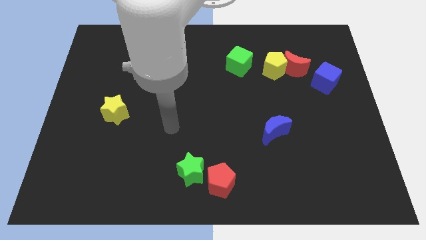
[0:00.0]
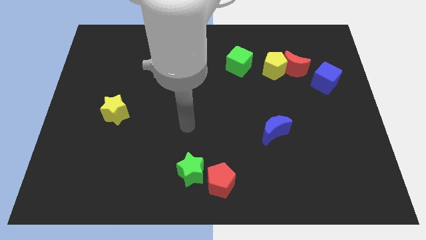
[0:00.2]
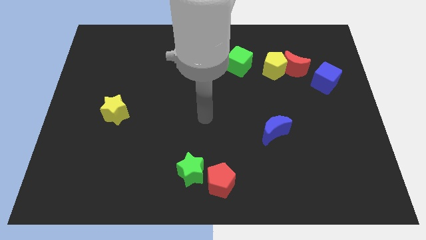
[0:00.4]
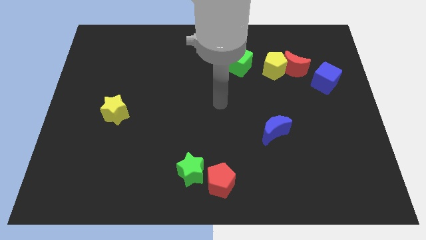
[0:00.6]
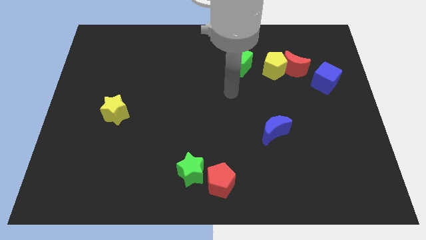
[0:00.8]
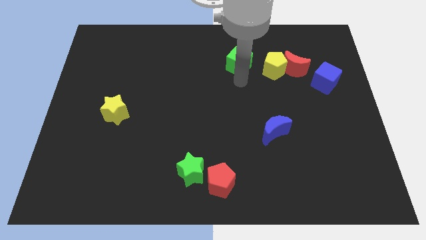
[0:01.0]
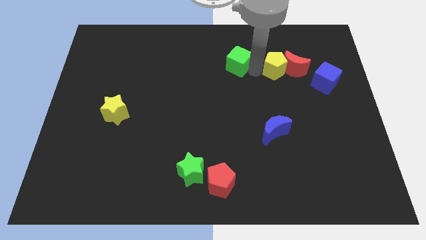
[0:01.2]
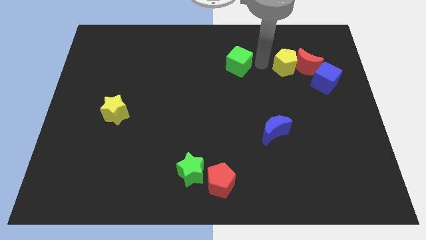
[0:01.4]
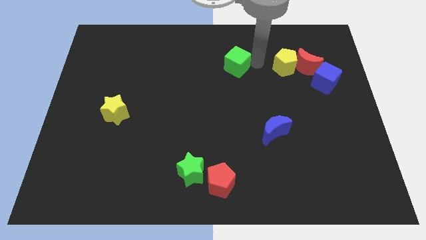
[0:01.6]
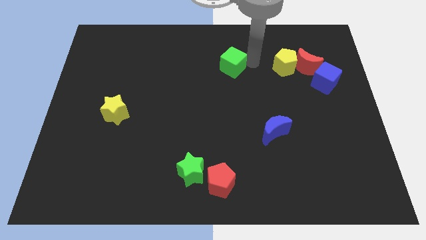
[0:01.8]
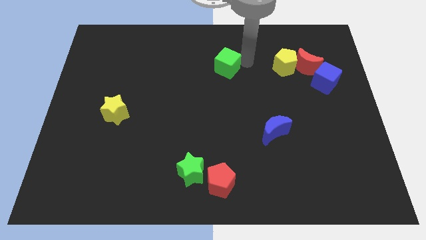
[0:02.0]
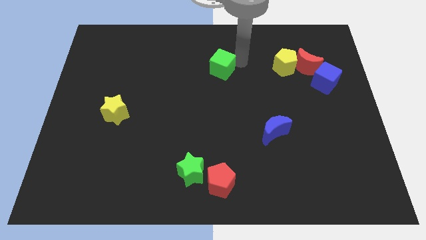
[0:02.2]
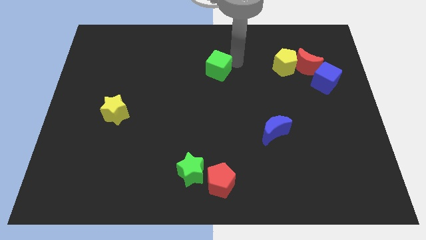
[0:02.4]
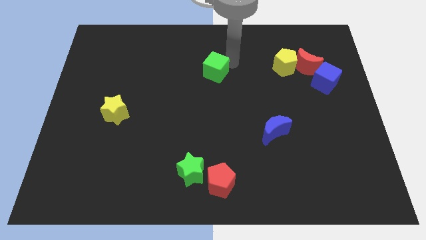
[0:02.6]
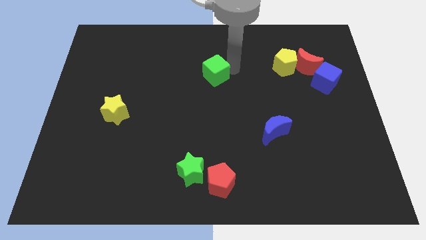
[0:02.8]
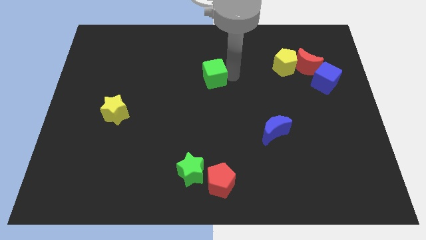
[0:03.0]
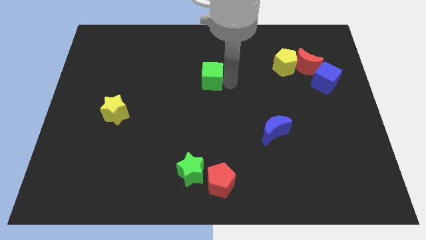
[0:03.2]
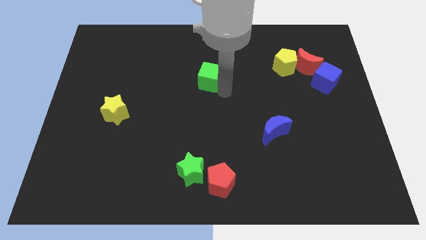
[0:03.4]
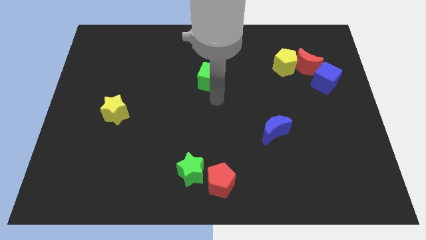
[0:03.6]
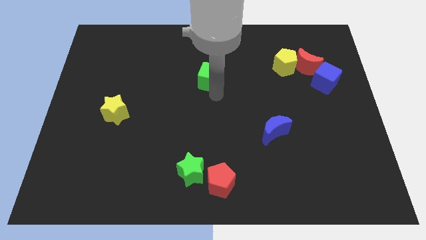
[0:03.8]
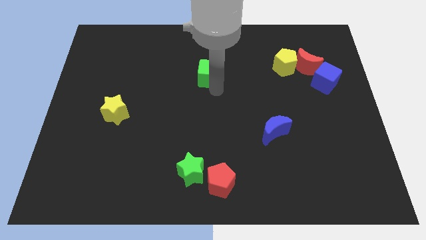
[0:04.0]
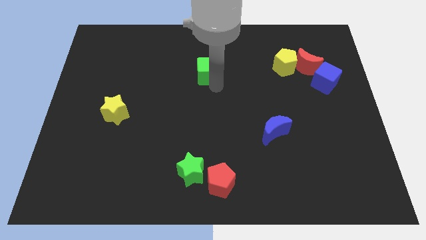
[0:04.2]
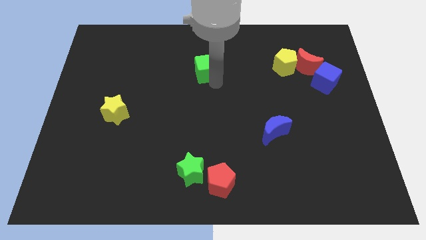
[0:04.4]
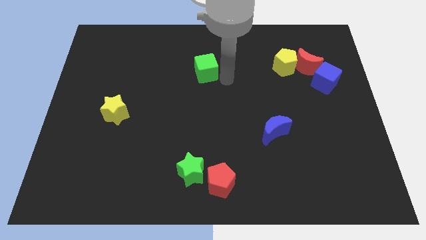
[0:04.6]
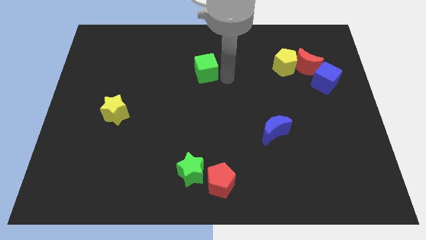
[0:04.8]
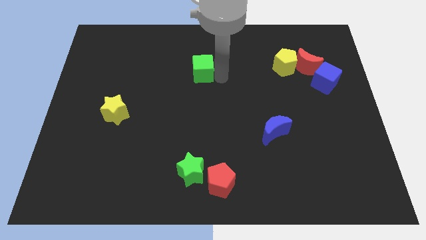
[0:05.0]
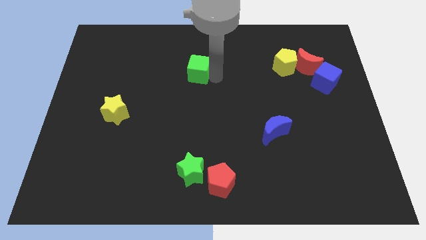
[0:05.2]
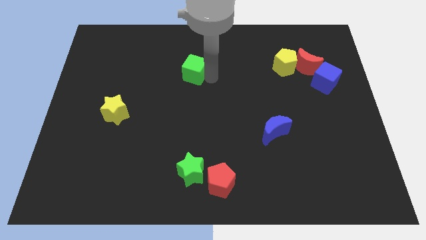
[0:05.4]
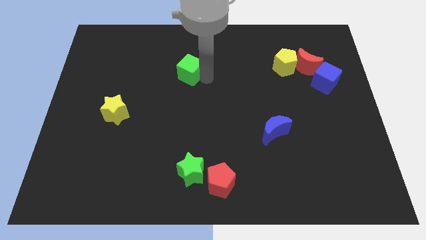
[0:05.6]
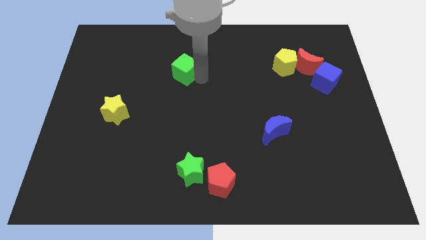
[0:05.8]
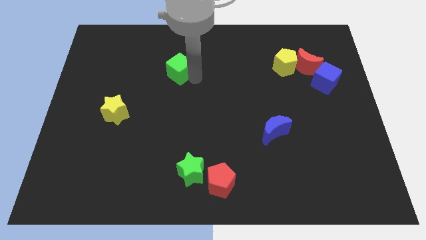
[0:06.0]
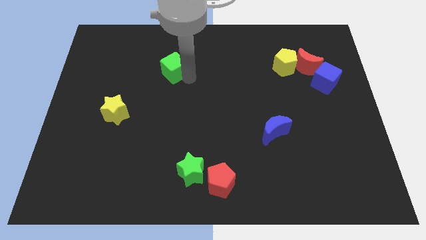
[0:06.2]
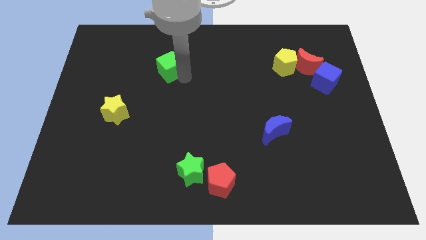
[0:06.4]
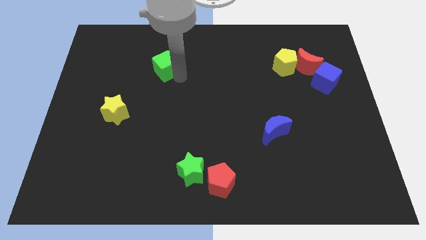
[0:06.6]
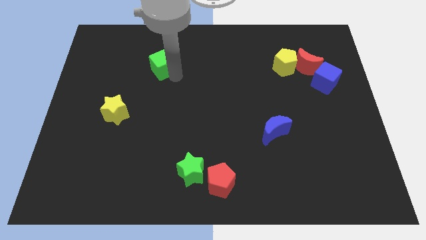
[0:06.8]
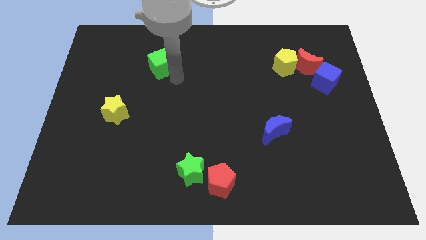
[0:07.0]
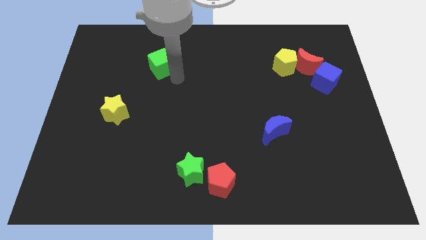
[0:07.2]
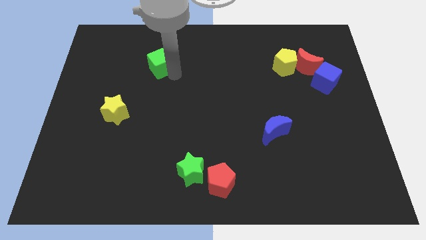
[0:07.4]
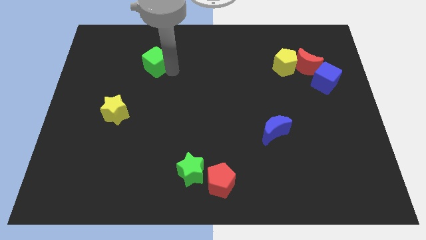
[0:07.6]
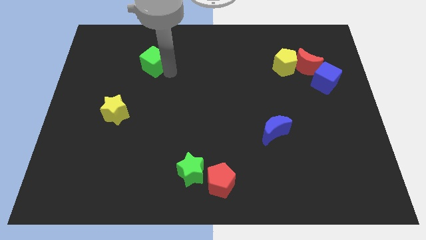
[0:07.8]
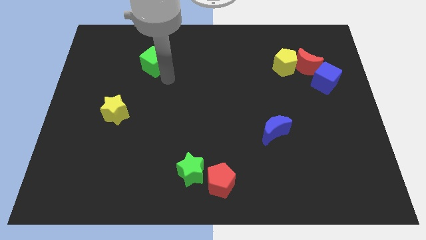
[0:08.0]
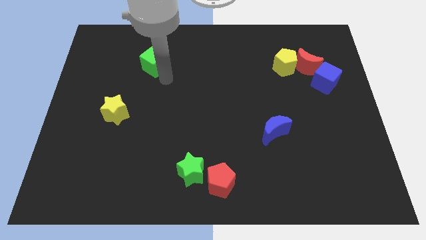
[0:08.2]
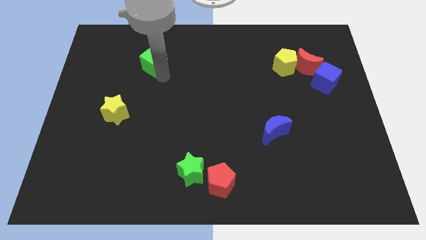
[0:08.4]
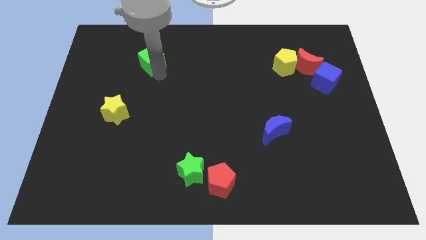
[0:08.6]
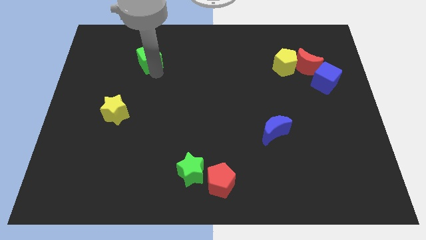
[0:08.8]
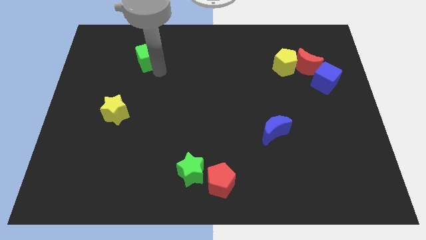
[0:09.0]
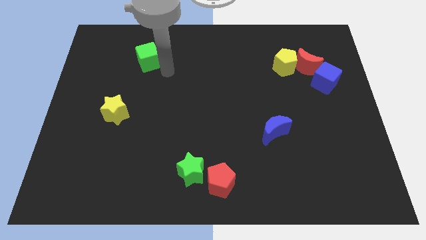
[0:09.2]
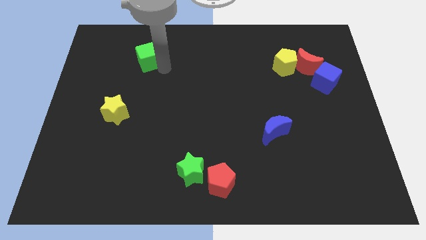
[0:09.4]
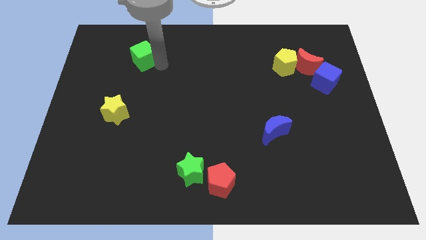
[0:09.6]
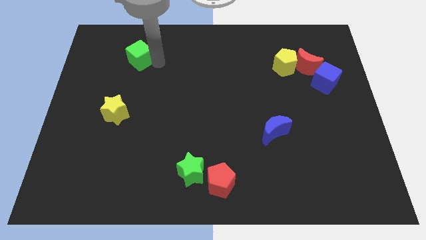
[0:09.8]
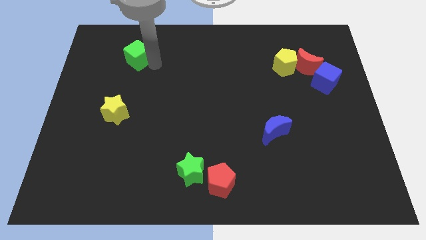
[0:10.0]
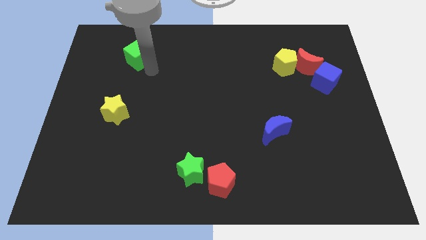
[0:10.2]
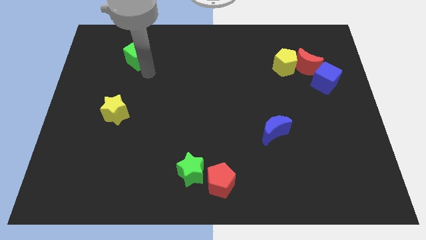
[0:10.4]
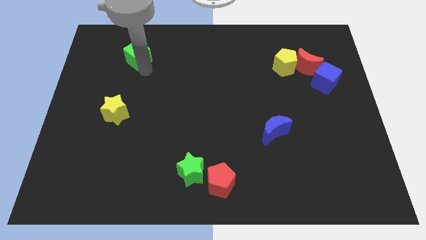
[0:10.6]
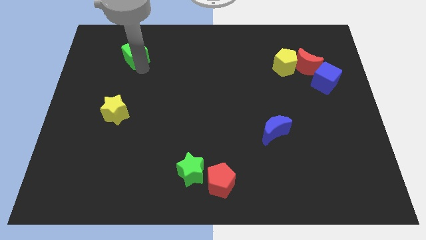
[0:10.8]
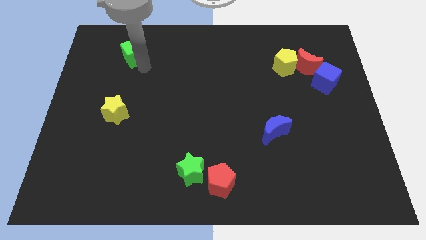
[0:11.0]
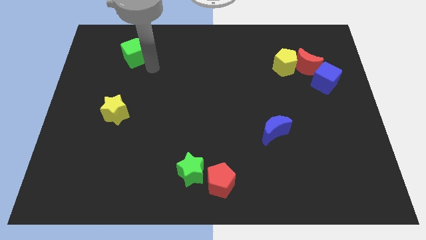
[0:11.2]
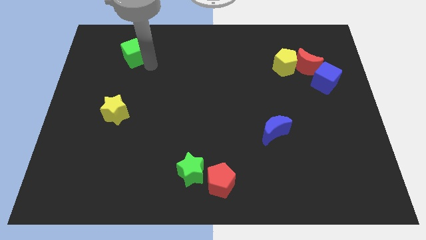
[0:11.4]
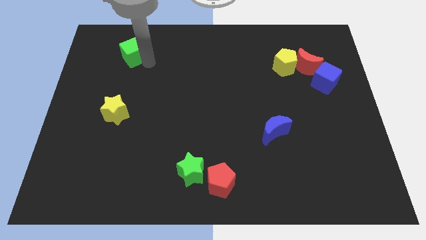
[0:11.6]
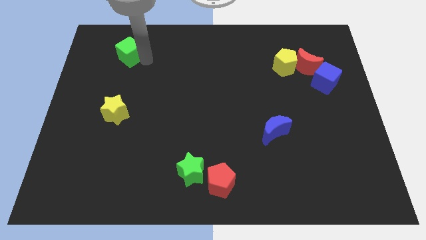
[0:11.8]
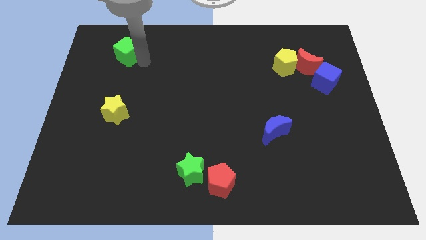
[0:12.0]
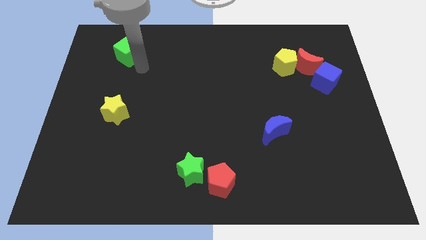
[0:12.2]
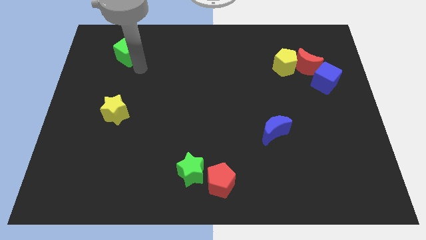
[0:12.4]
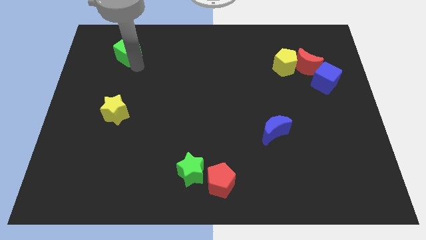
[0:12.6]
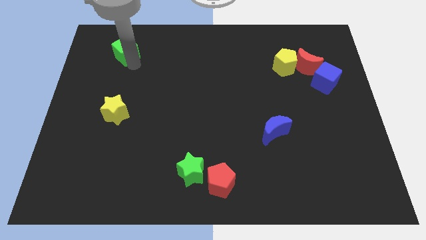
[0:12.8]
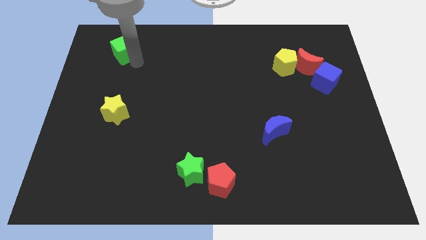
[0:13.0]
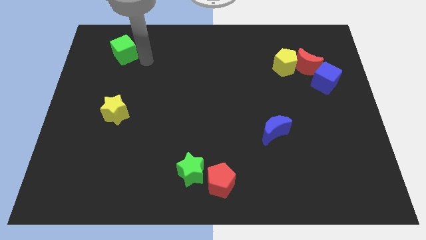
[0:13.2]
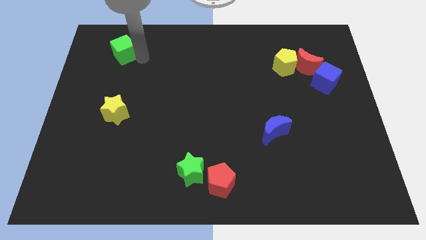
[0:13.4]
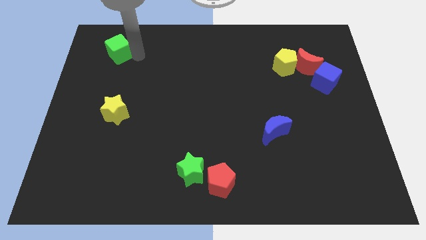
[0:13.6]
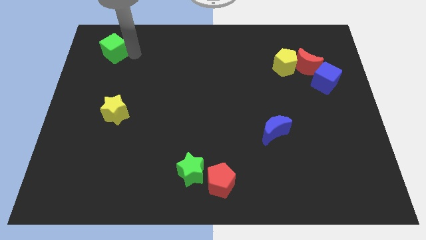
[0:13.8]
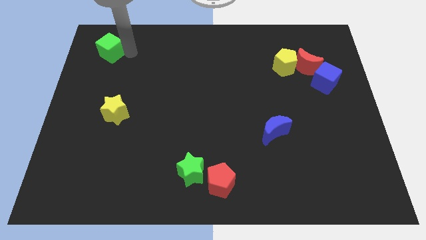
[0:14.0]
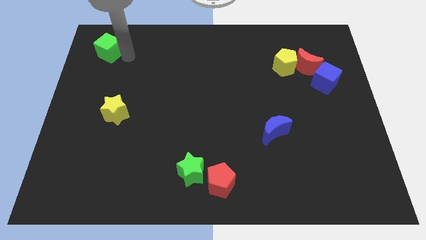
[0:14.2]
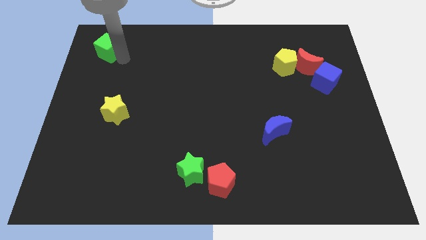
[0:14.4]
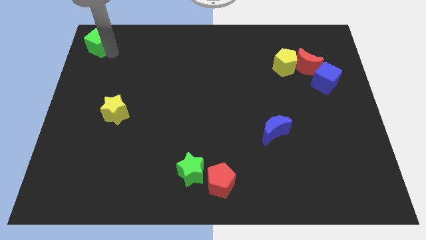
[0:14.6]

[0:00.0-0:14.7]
push the green cube to the upper left corner
